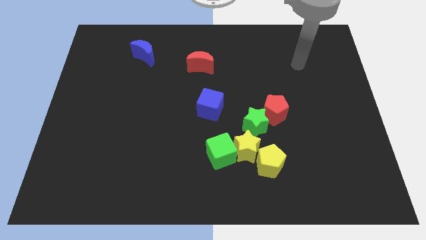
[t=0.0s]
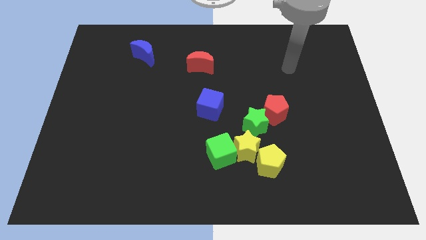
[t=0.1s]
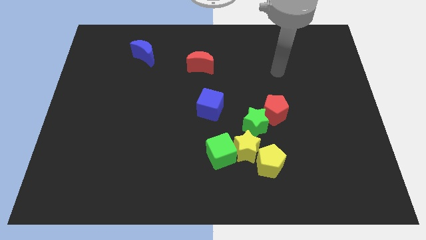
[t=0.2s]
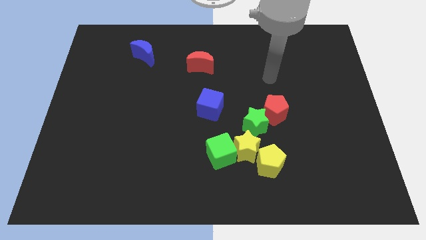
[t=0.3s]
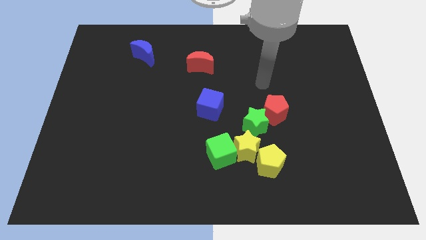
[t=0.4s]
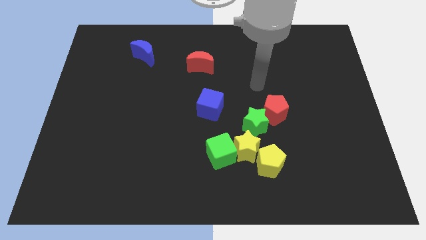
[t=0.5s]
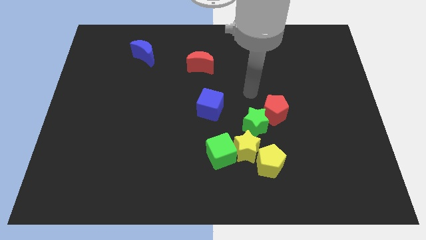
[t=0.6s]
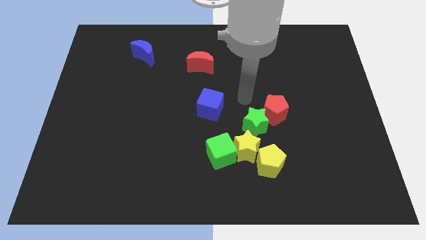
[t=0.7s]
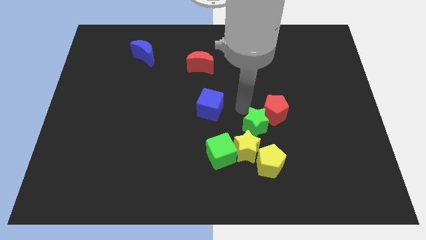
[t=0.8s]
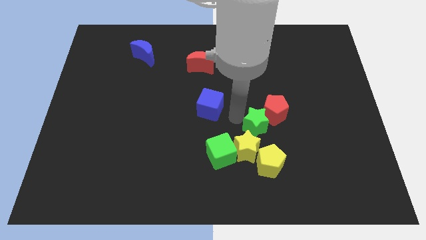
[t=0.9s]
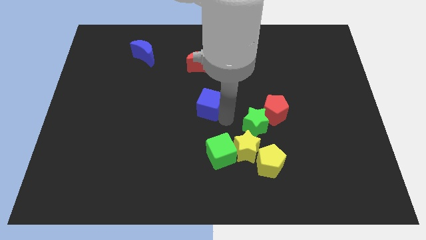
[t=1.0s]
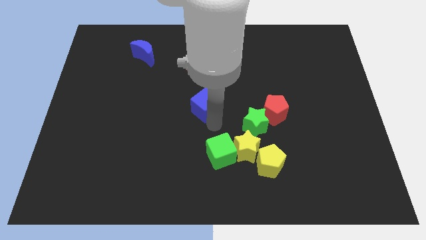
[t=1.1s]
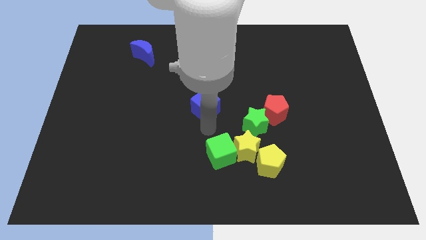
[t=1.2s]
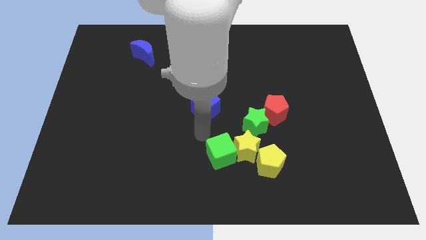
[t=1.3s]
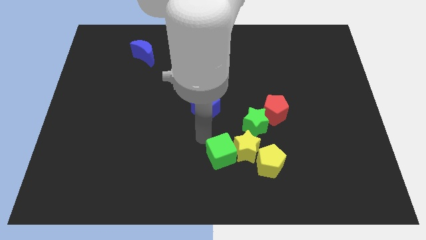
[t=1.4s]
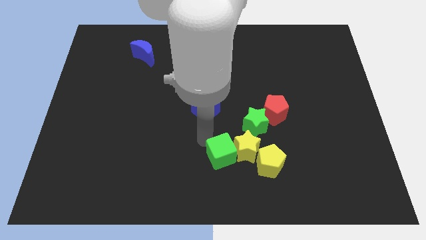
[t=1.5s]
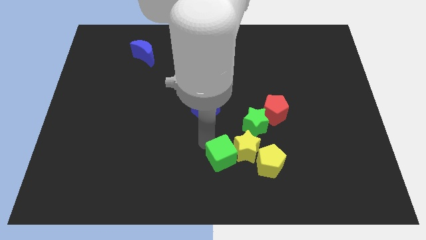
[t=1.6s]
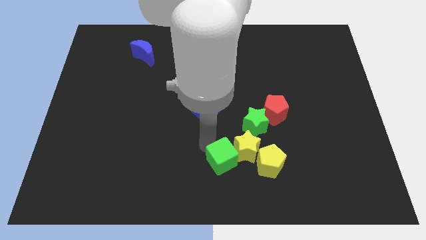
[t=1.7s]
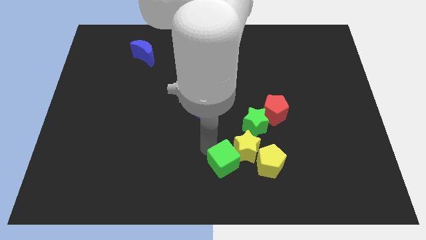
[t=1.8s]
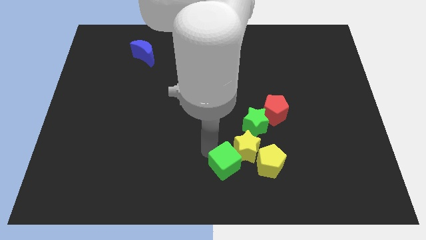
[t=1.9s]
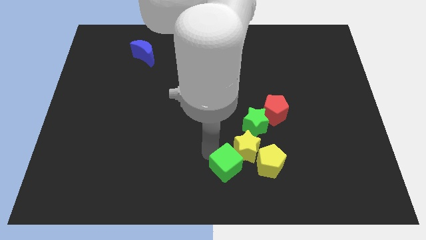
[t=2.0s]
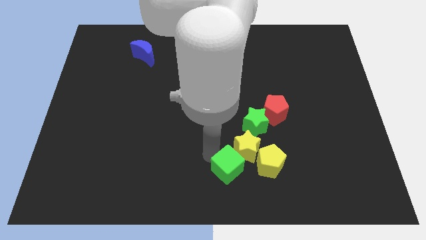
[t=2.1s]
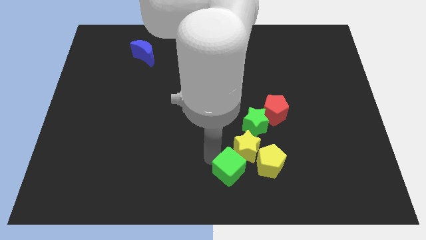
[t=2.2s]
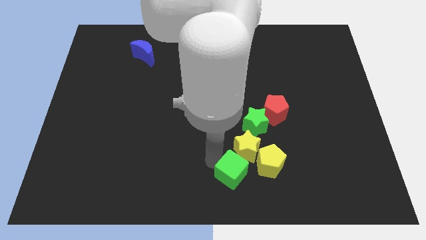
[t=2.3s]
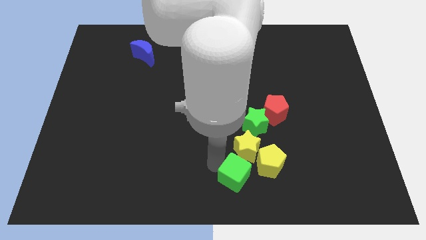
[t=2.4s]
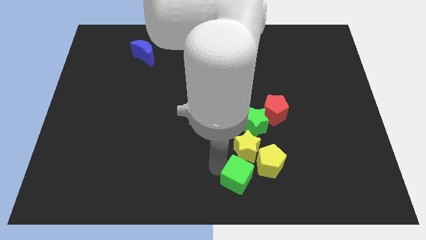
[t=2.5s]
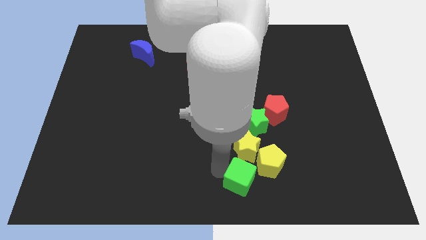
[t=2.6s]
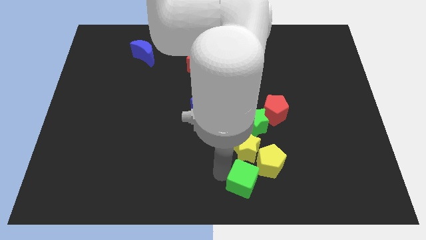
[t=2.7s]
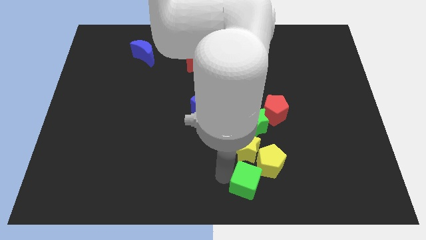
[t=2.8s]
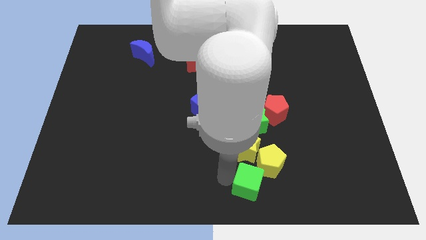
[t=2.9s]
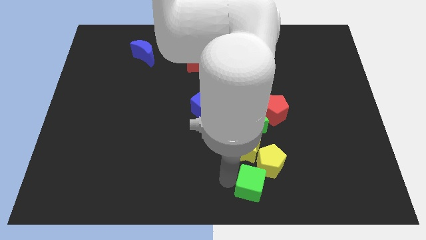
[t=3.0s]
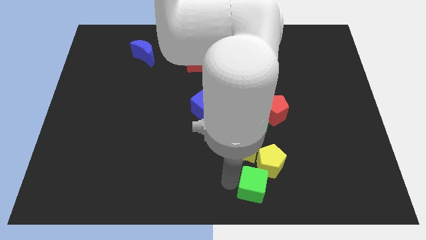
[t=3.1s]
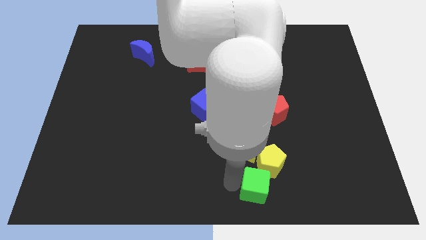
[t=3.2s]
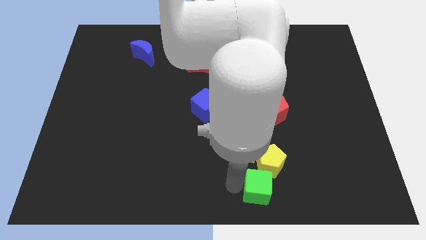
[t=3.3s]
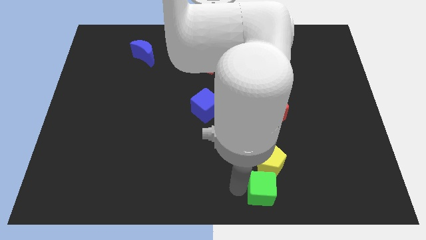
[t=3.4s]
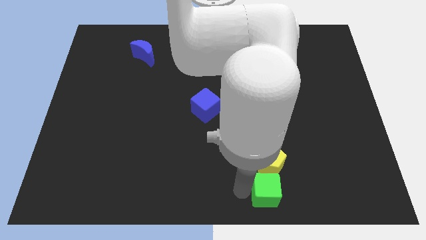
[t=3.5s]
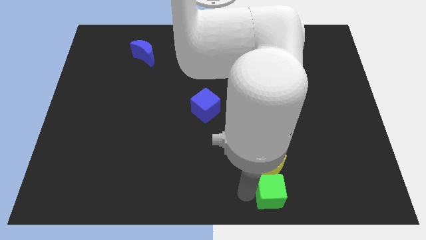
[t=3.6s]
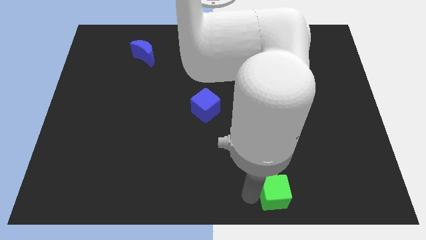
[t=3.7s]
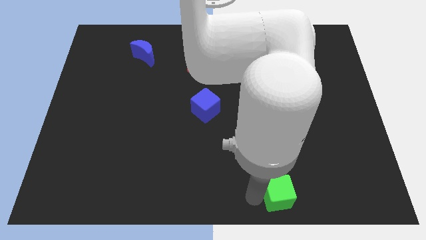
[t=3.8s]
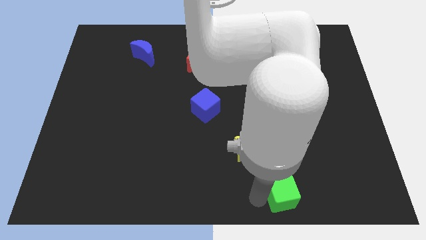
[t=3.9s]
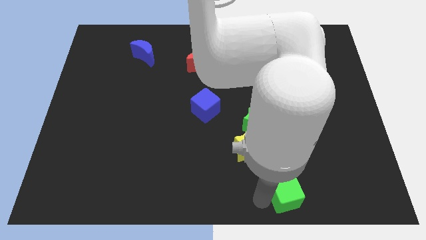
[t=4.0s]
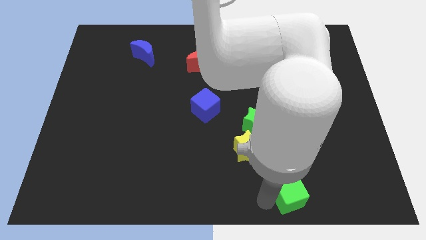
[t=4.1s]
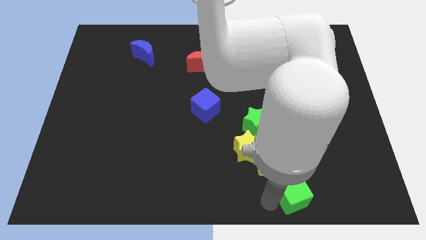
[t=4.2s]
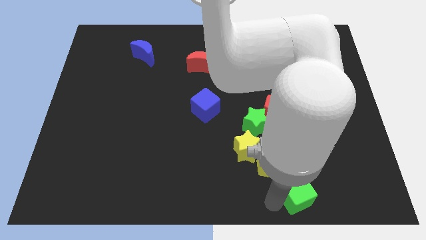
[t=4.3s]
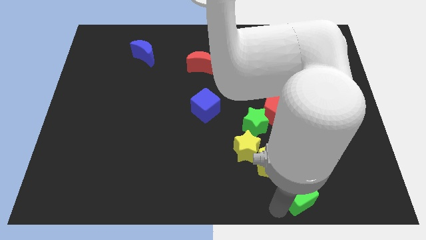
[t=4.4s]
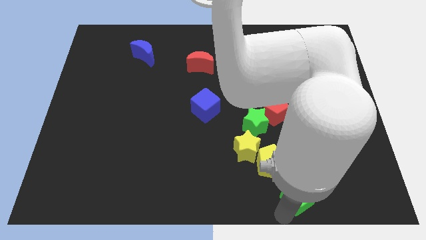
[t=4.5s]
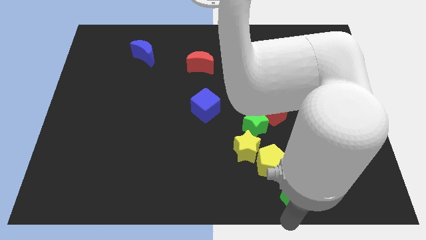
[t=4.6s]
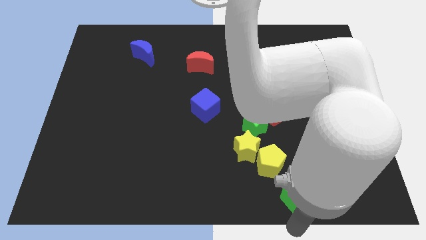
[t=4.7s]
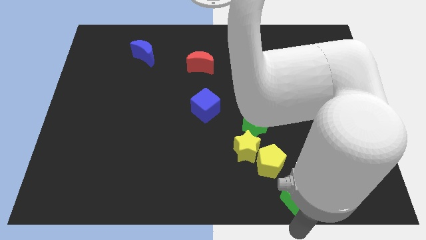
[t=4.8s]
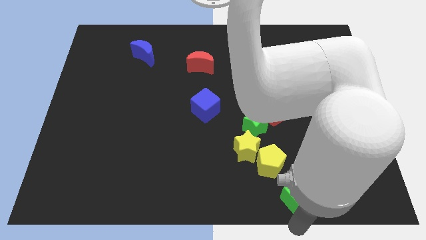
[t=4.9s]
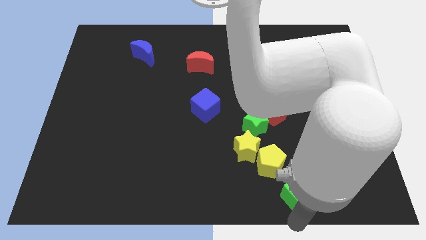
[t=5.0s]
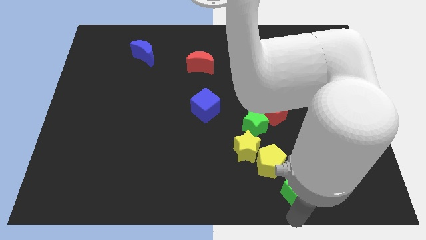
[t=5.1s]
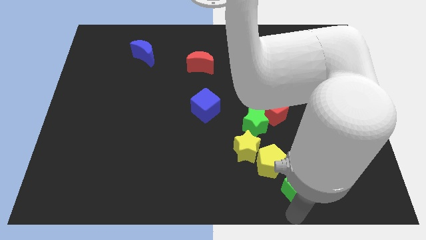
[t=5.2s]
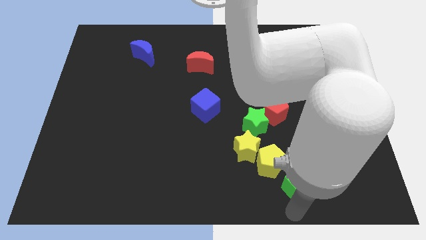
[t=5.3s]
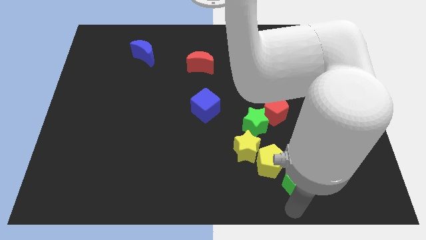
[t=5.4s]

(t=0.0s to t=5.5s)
move the green cube to the right side of the yellow pentagon

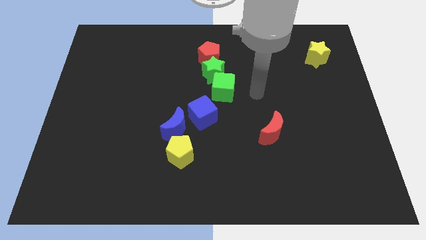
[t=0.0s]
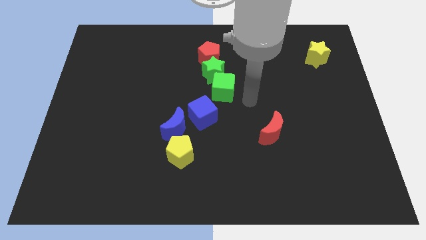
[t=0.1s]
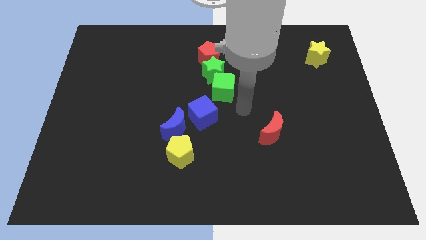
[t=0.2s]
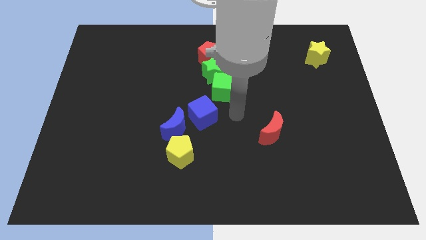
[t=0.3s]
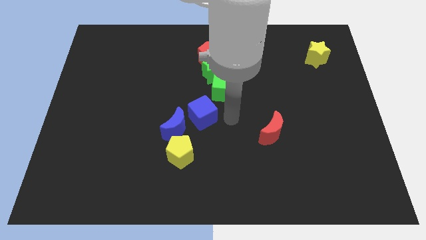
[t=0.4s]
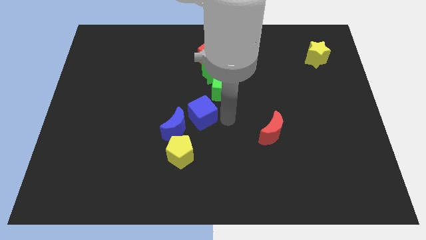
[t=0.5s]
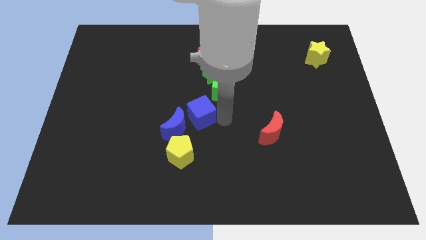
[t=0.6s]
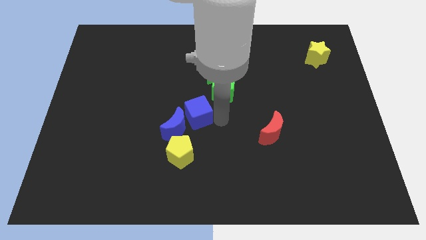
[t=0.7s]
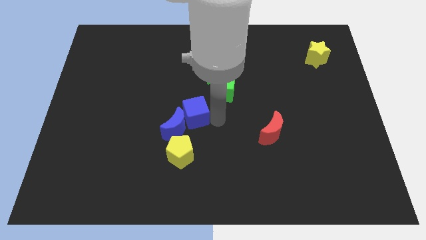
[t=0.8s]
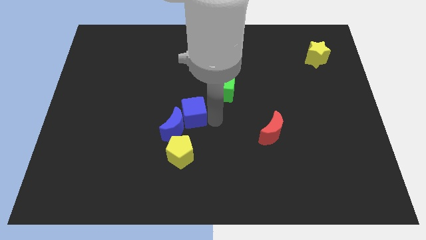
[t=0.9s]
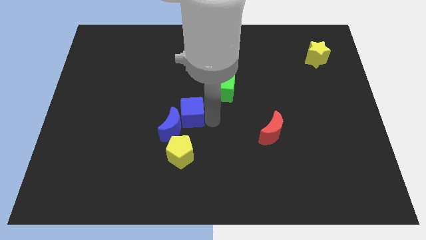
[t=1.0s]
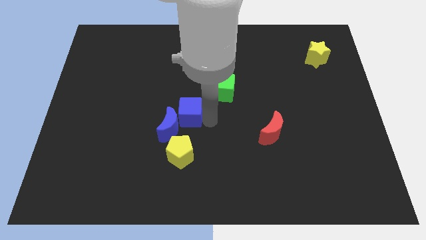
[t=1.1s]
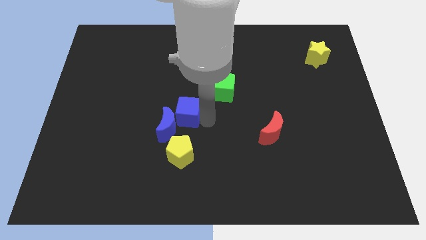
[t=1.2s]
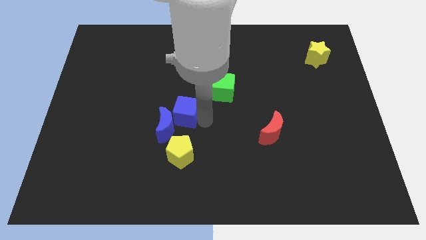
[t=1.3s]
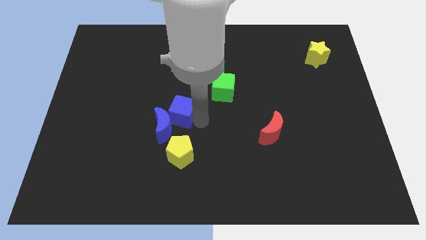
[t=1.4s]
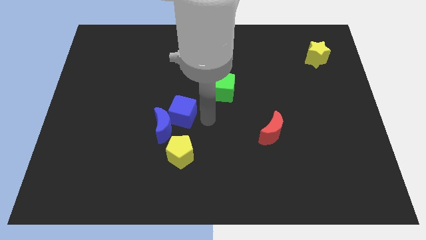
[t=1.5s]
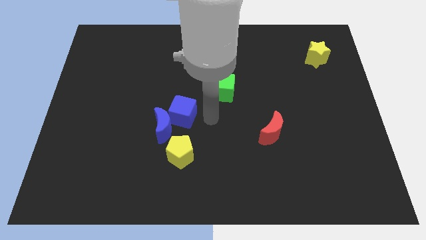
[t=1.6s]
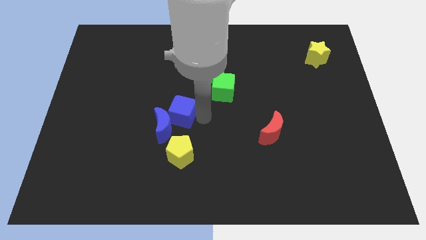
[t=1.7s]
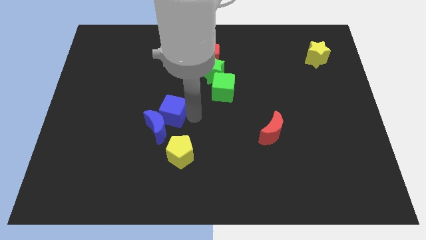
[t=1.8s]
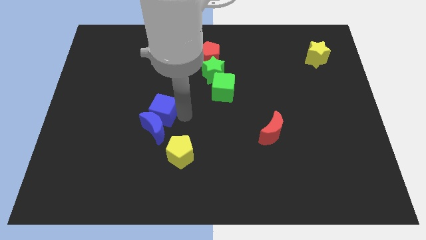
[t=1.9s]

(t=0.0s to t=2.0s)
put the blue cube diagonally up and to the left of the blue moon
